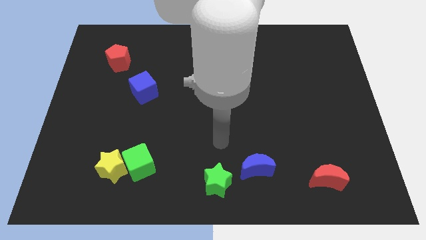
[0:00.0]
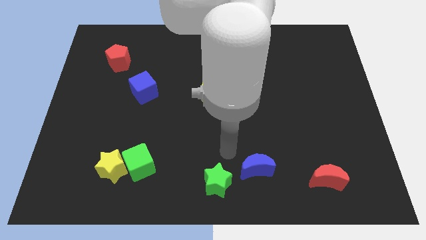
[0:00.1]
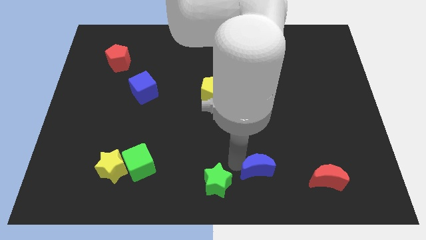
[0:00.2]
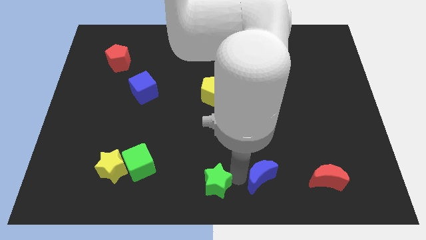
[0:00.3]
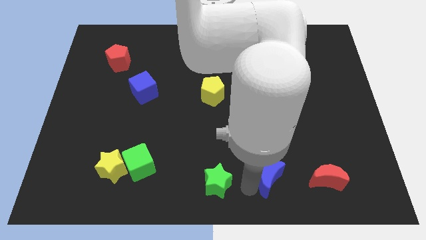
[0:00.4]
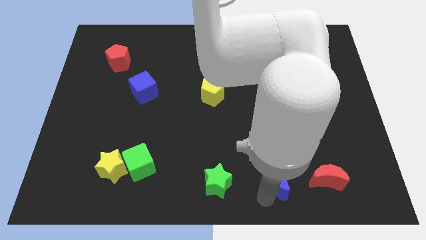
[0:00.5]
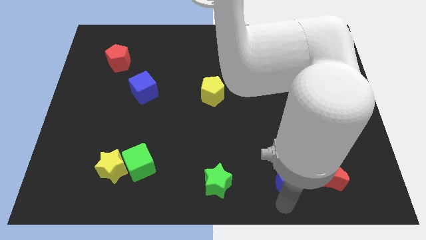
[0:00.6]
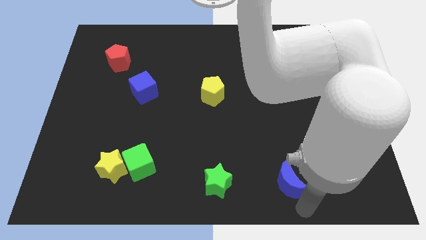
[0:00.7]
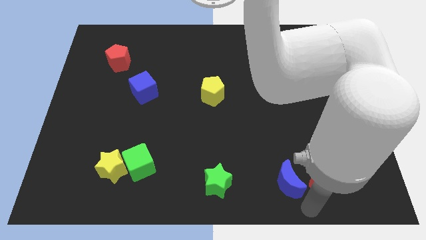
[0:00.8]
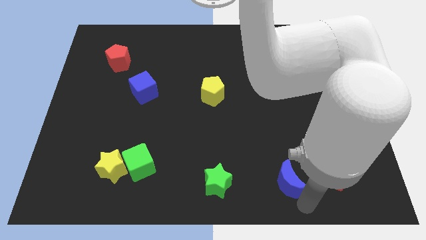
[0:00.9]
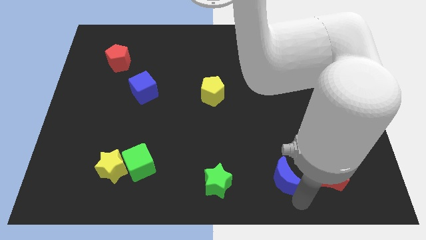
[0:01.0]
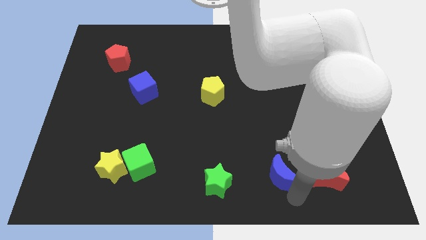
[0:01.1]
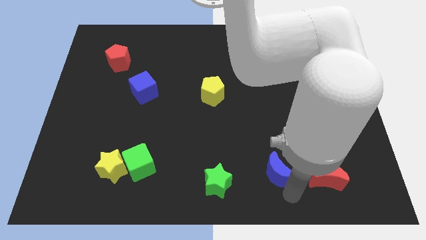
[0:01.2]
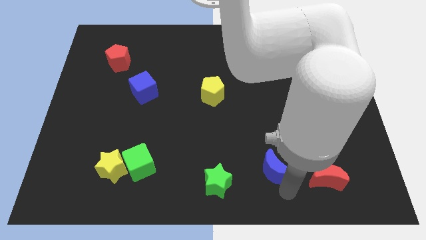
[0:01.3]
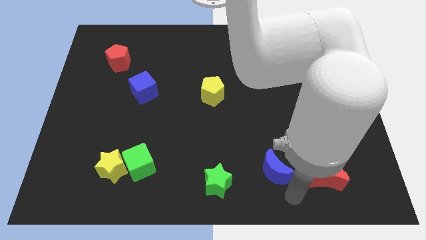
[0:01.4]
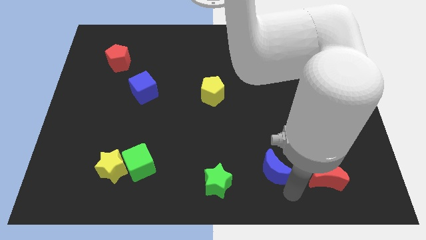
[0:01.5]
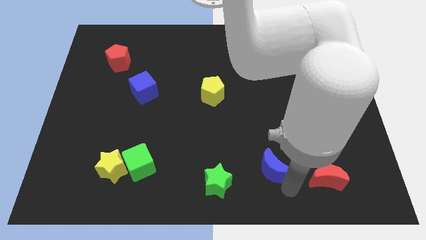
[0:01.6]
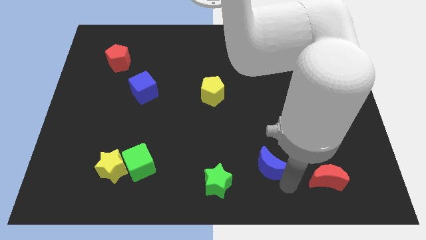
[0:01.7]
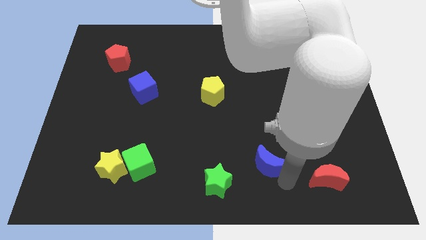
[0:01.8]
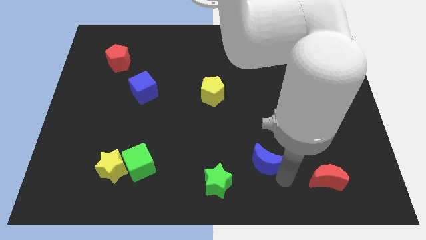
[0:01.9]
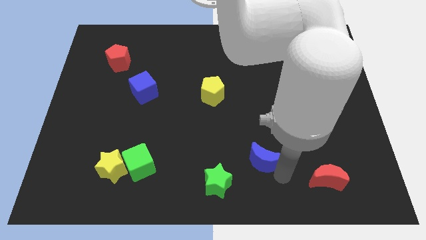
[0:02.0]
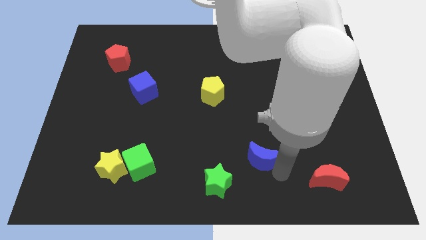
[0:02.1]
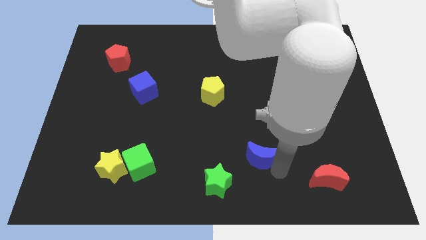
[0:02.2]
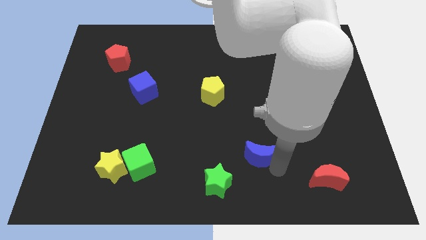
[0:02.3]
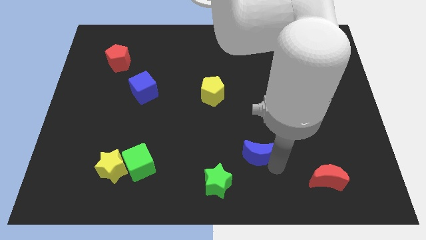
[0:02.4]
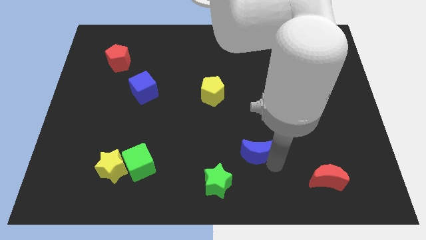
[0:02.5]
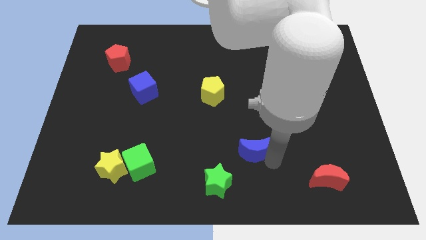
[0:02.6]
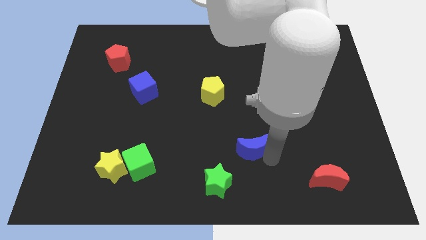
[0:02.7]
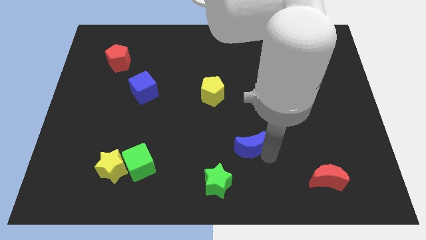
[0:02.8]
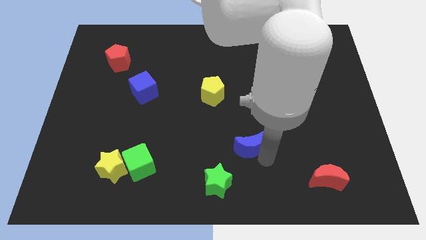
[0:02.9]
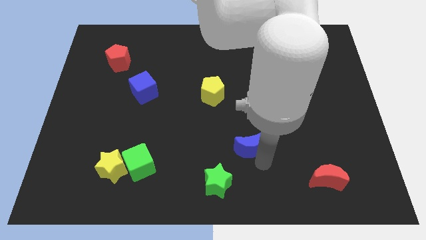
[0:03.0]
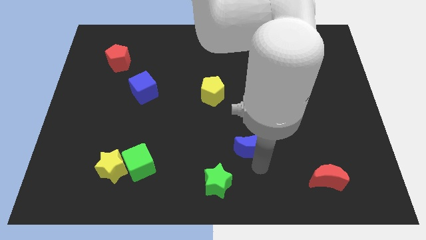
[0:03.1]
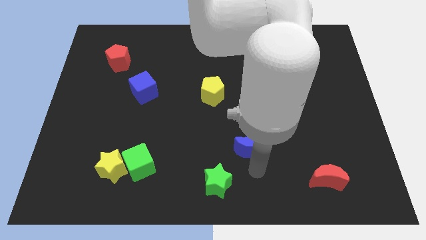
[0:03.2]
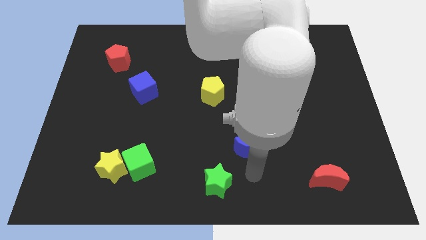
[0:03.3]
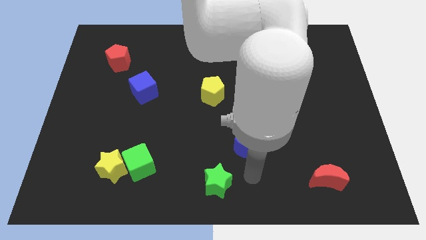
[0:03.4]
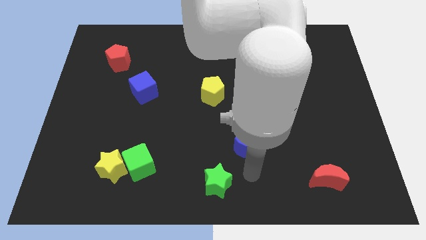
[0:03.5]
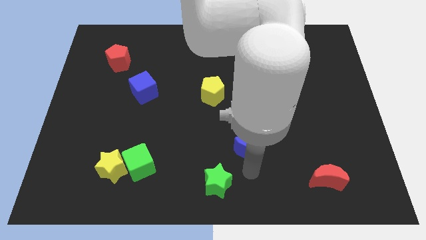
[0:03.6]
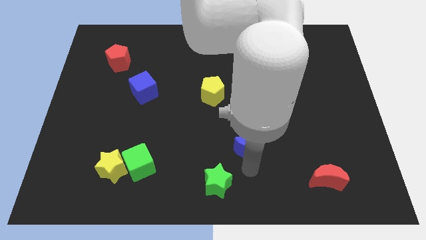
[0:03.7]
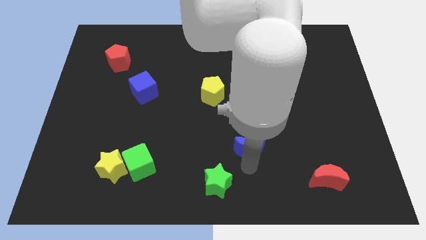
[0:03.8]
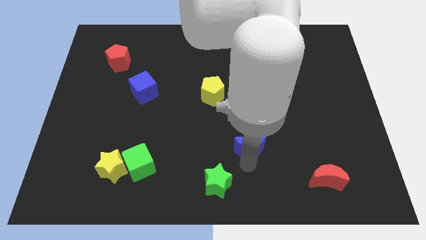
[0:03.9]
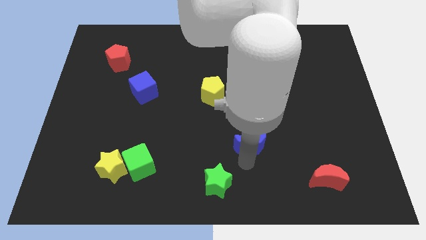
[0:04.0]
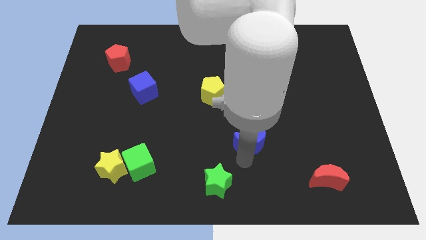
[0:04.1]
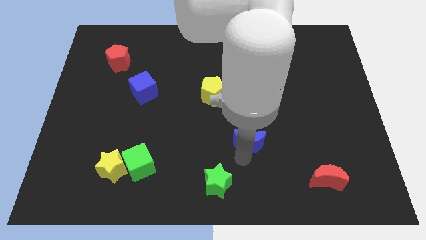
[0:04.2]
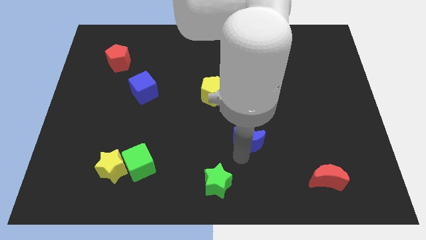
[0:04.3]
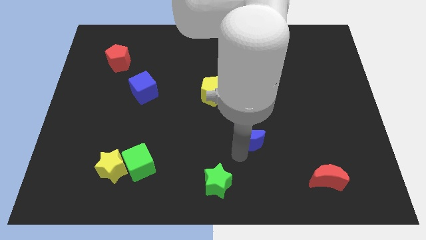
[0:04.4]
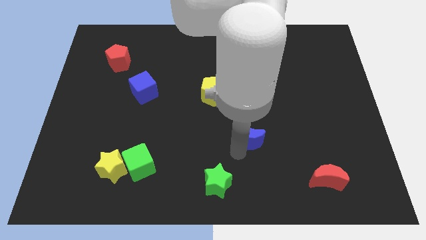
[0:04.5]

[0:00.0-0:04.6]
push the blue moon upwards a little

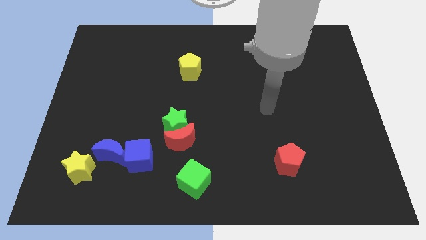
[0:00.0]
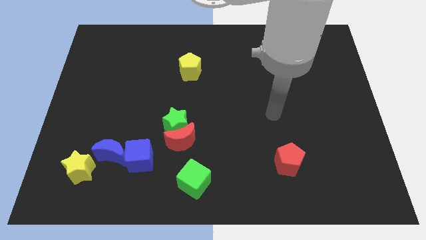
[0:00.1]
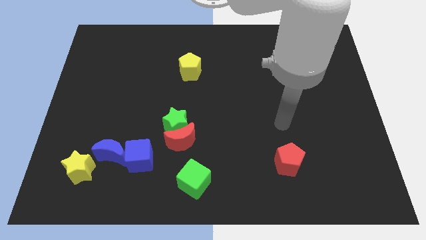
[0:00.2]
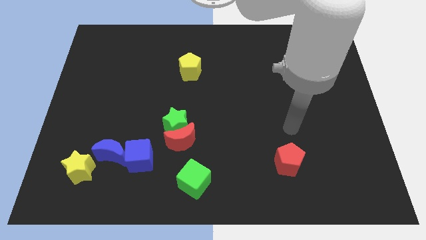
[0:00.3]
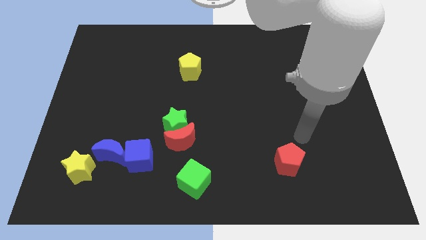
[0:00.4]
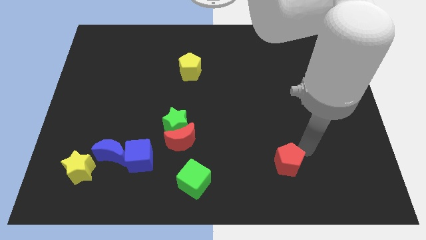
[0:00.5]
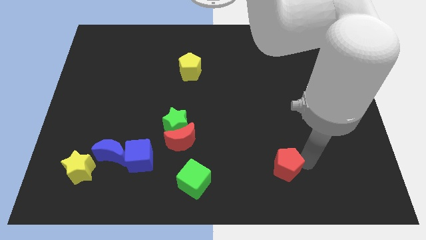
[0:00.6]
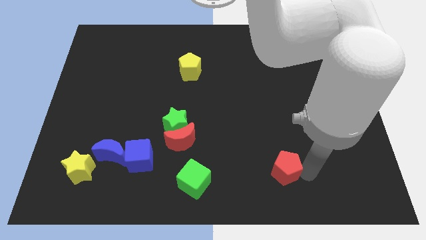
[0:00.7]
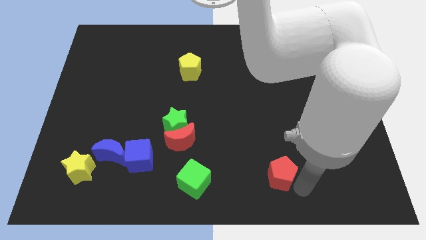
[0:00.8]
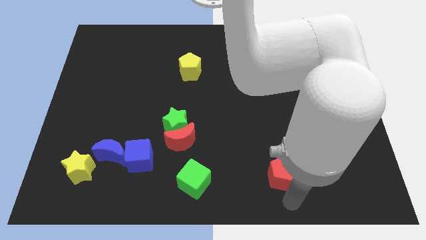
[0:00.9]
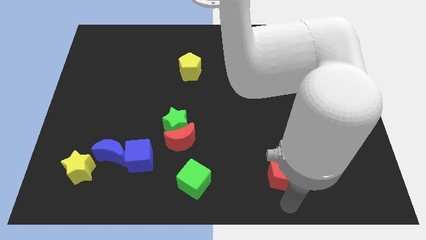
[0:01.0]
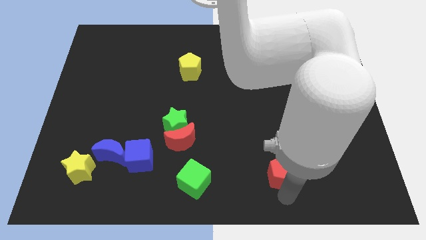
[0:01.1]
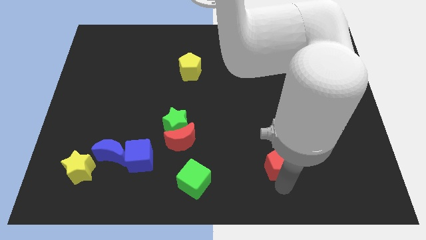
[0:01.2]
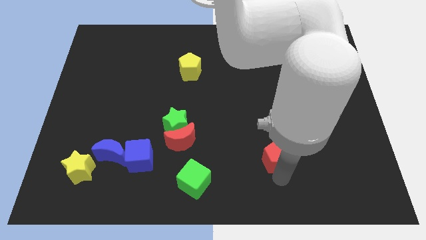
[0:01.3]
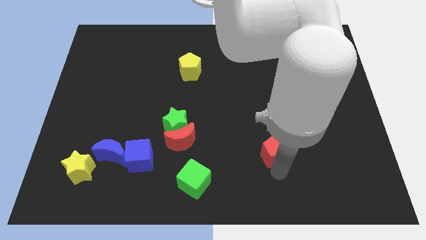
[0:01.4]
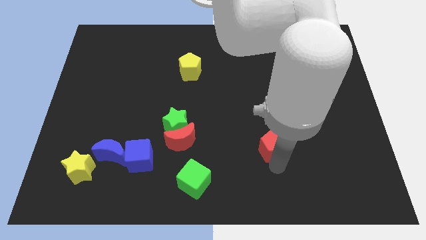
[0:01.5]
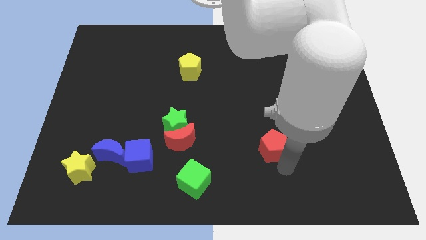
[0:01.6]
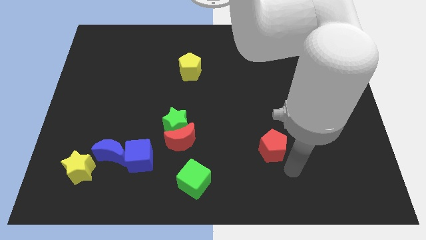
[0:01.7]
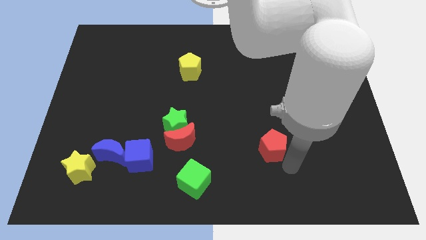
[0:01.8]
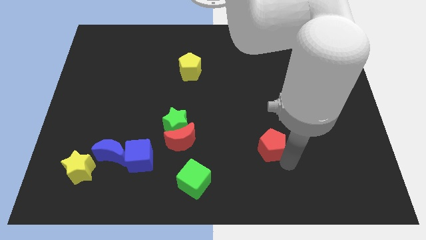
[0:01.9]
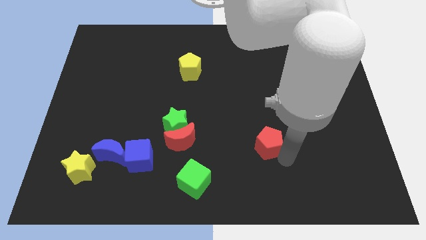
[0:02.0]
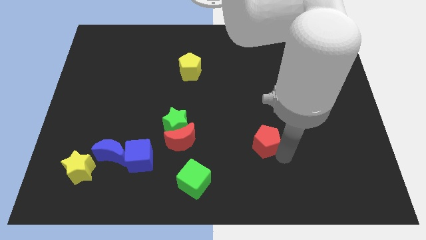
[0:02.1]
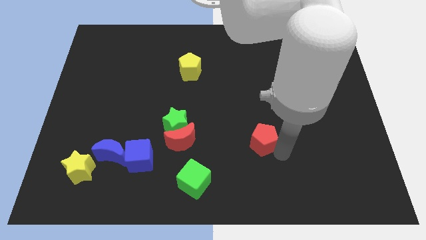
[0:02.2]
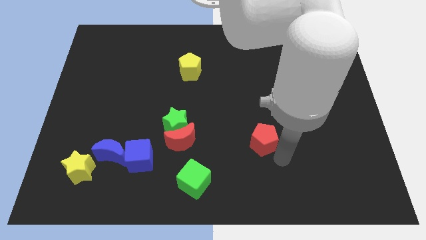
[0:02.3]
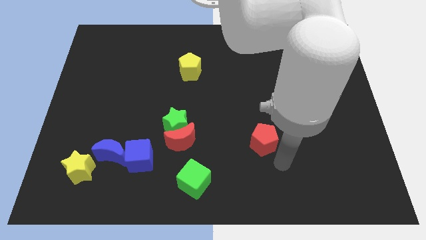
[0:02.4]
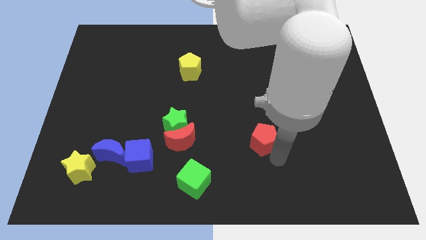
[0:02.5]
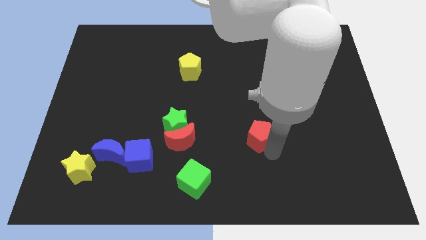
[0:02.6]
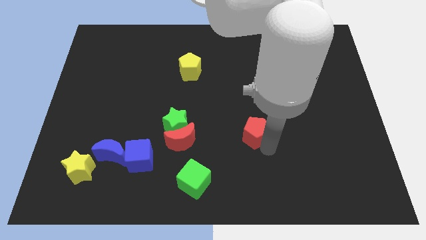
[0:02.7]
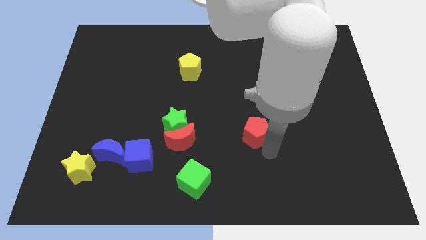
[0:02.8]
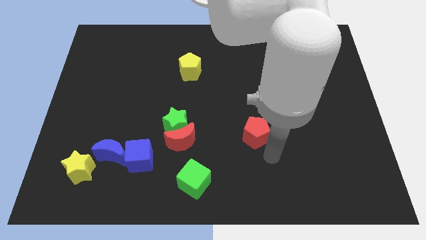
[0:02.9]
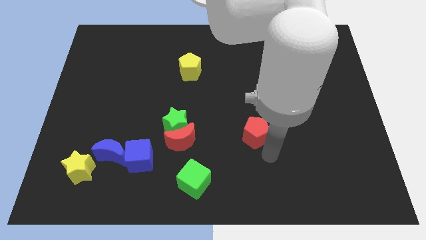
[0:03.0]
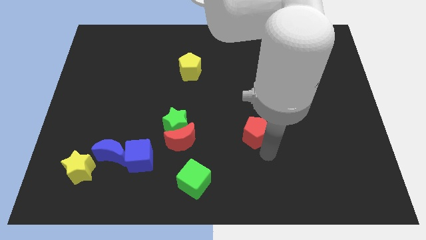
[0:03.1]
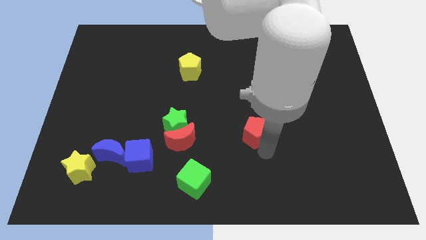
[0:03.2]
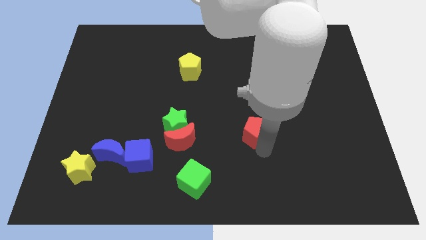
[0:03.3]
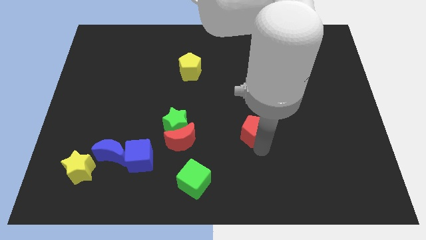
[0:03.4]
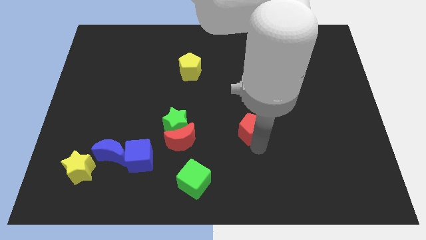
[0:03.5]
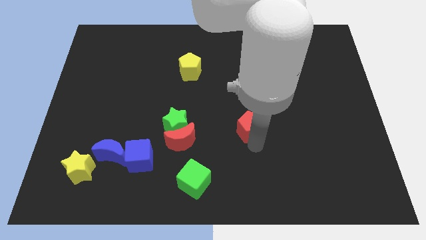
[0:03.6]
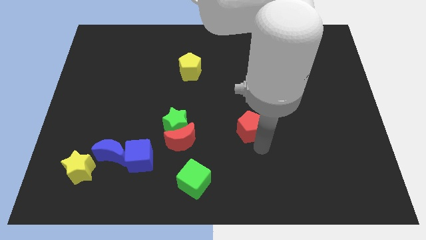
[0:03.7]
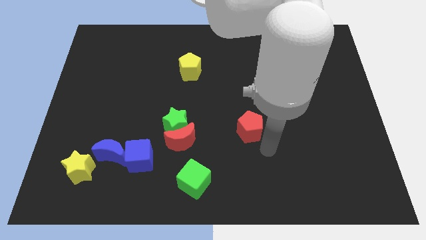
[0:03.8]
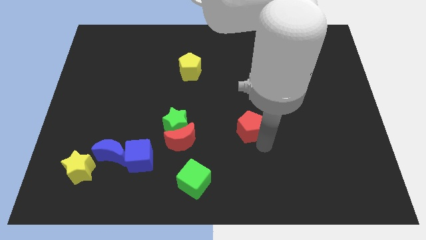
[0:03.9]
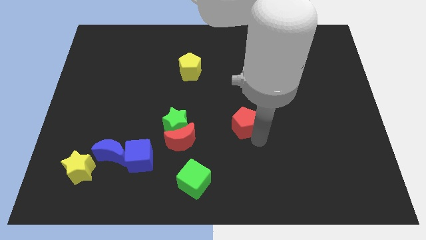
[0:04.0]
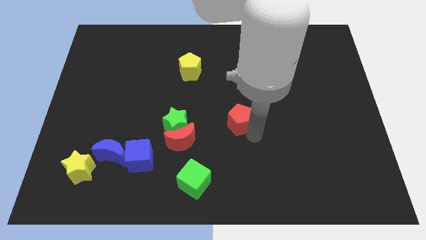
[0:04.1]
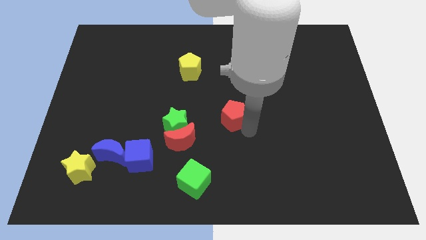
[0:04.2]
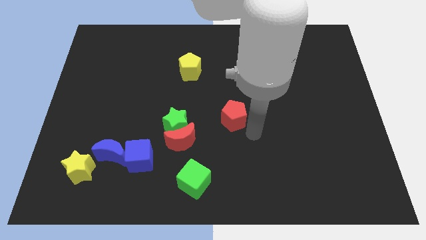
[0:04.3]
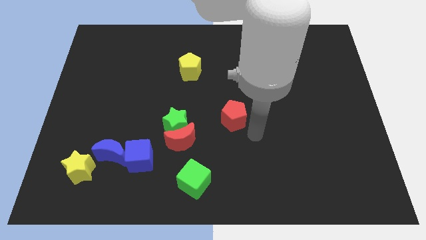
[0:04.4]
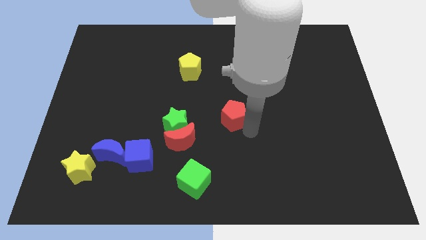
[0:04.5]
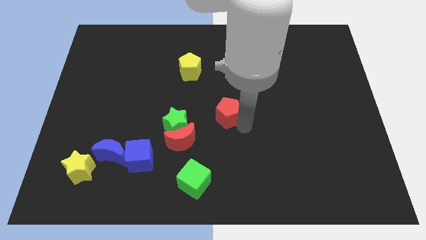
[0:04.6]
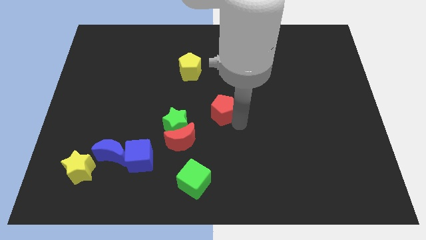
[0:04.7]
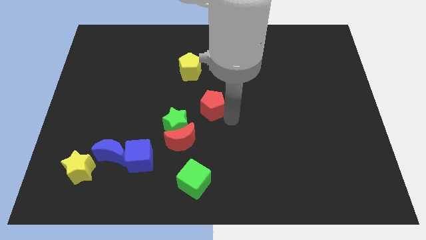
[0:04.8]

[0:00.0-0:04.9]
move the red pentagon up and then left
